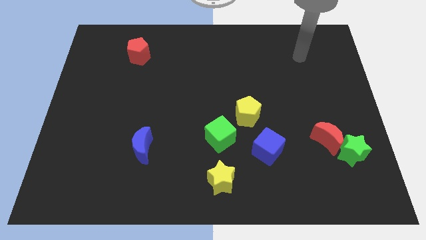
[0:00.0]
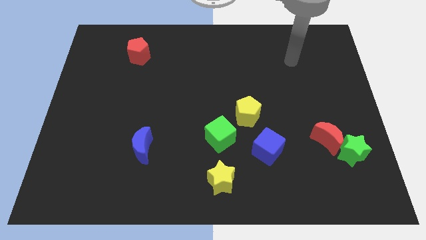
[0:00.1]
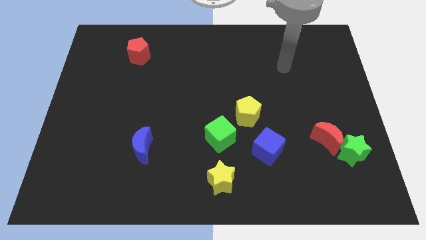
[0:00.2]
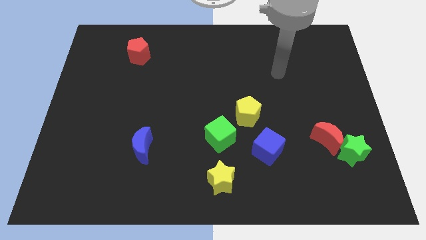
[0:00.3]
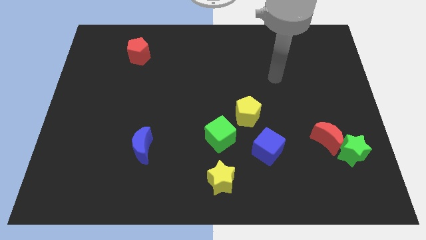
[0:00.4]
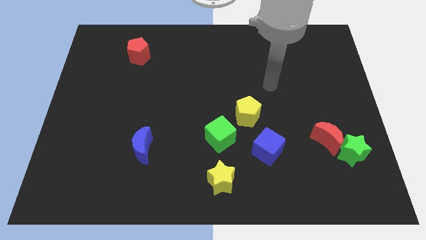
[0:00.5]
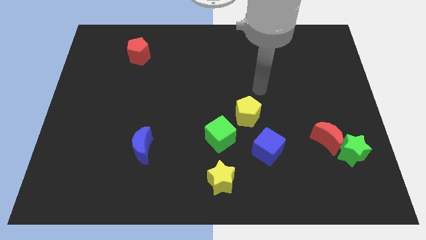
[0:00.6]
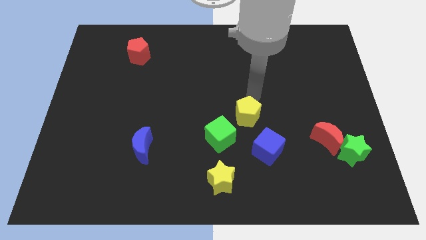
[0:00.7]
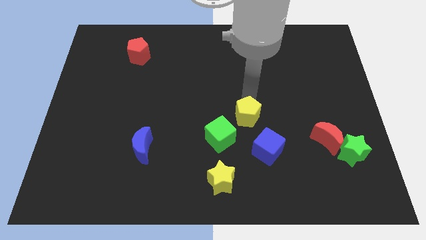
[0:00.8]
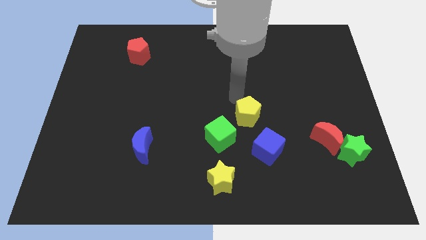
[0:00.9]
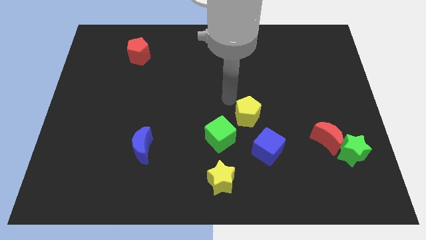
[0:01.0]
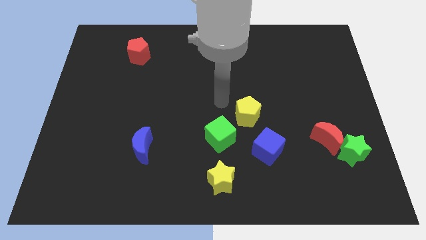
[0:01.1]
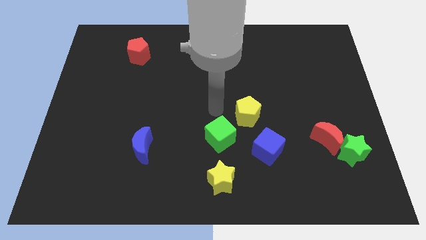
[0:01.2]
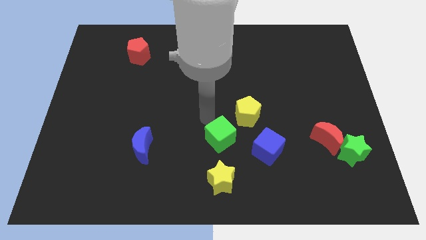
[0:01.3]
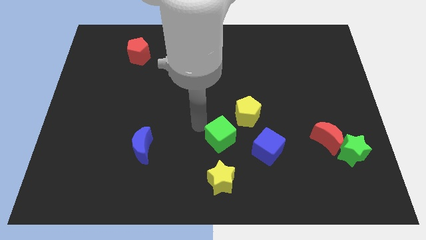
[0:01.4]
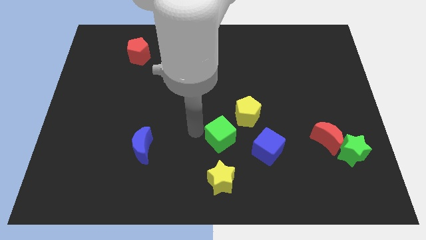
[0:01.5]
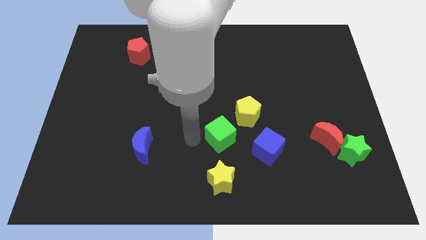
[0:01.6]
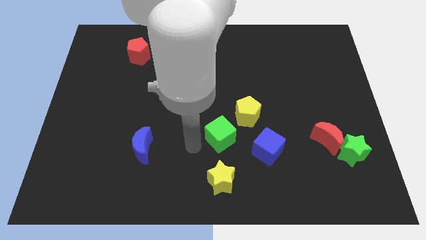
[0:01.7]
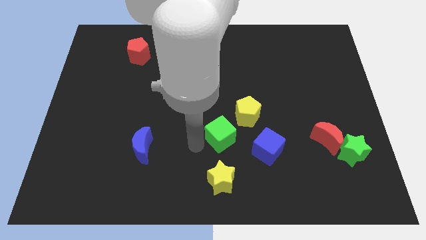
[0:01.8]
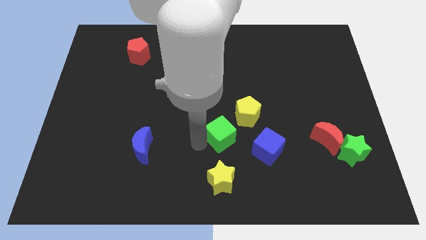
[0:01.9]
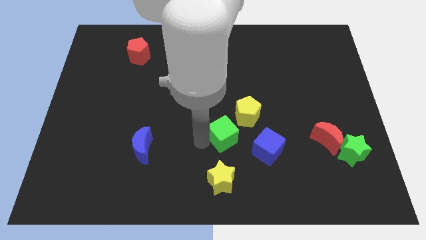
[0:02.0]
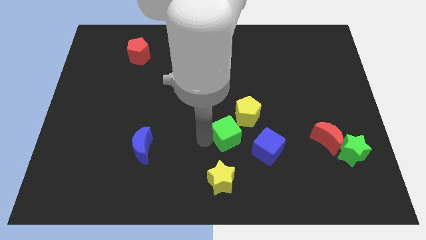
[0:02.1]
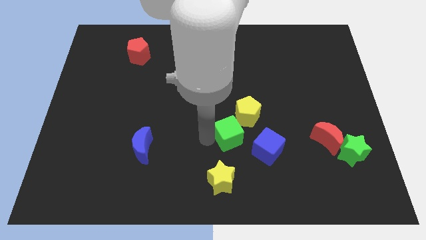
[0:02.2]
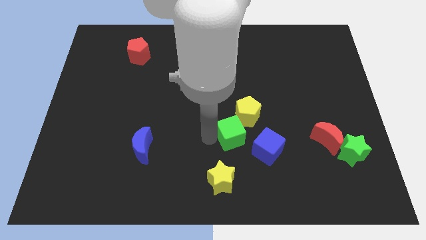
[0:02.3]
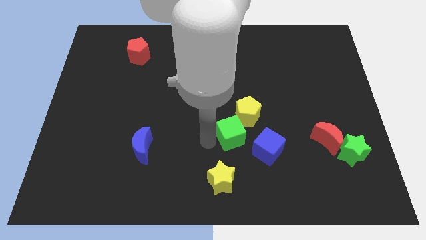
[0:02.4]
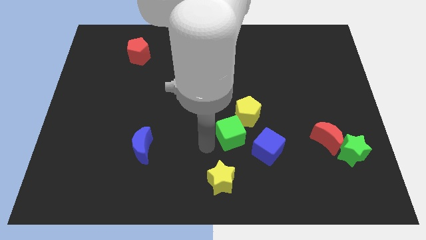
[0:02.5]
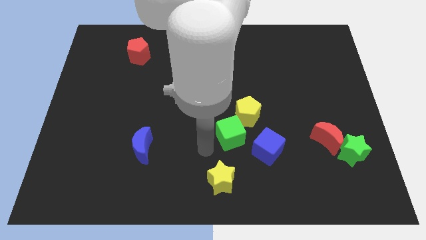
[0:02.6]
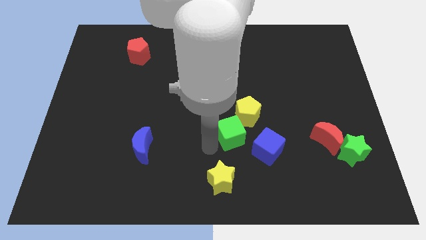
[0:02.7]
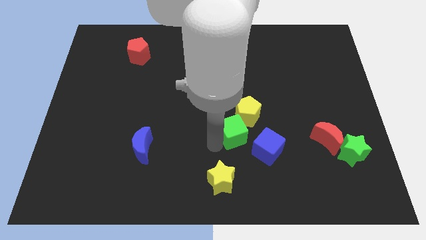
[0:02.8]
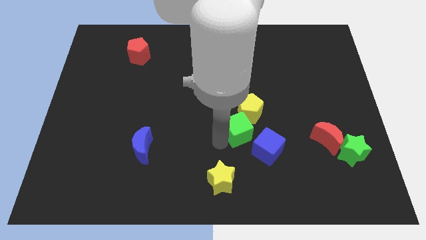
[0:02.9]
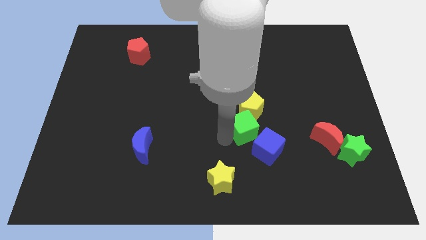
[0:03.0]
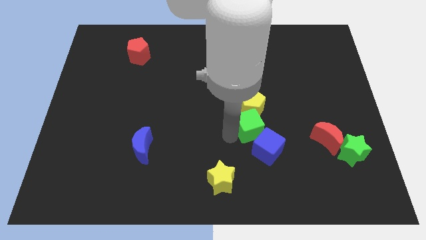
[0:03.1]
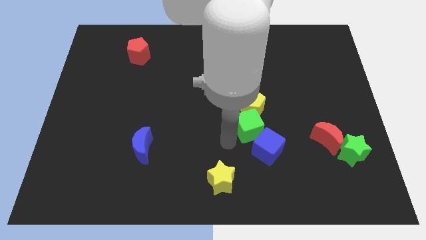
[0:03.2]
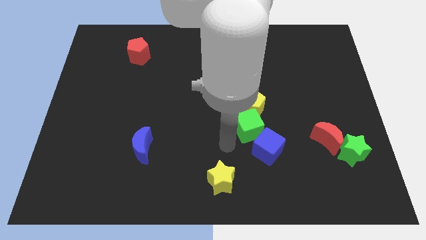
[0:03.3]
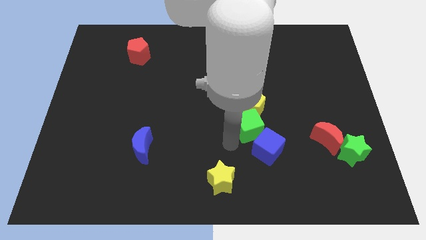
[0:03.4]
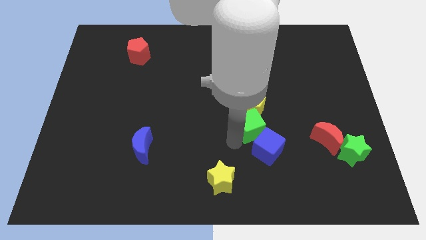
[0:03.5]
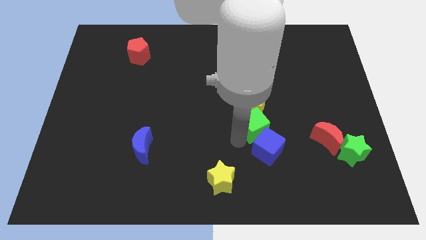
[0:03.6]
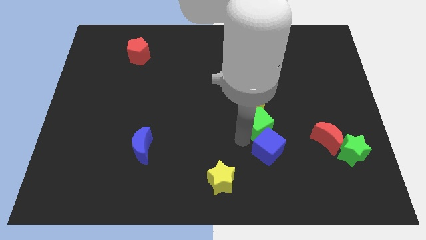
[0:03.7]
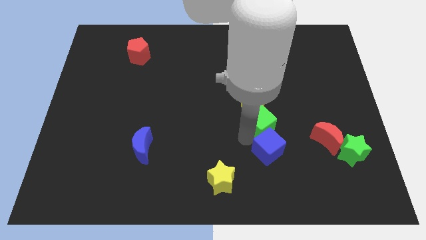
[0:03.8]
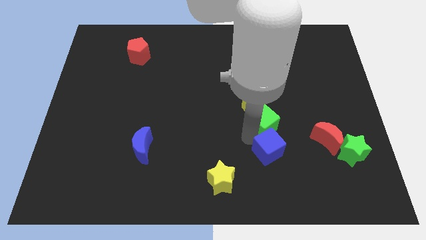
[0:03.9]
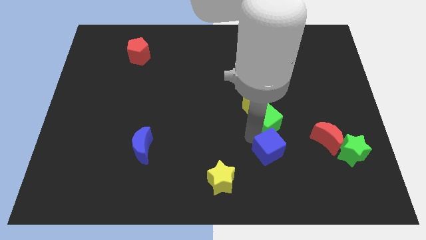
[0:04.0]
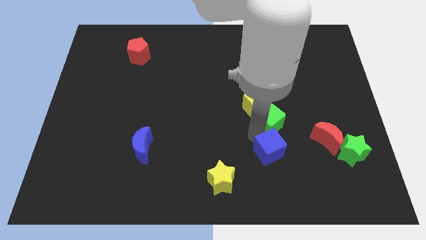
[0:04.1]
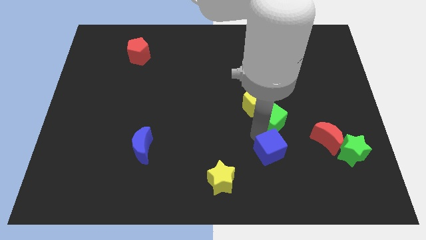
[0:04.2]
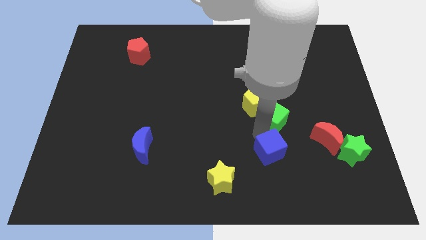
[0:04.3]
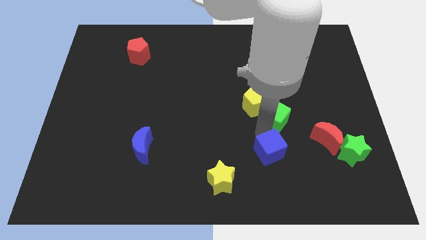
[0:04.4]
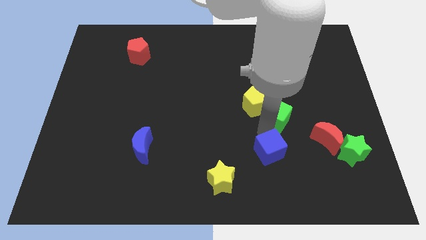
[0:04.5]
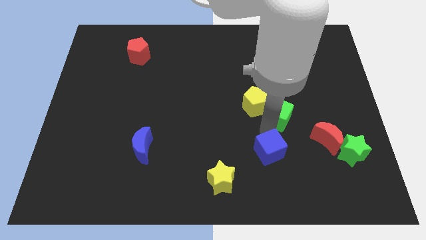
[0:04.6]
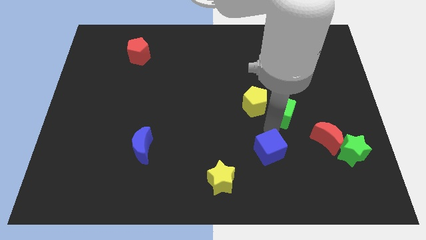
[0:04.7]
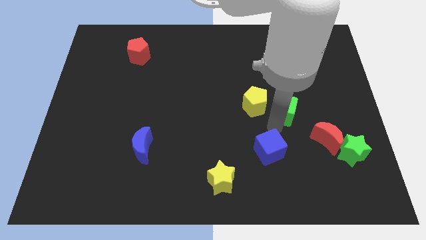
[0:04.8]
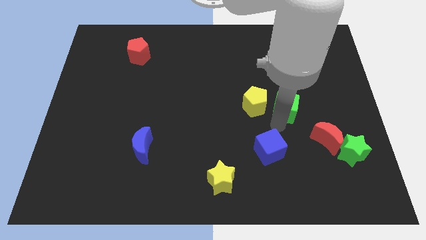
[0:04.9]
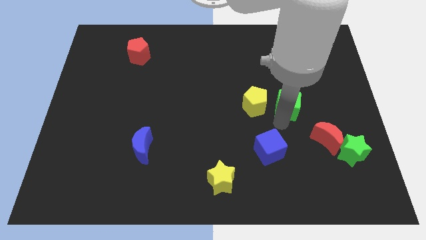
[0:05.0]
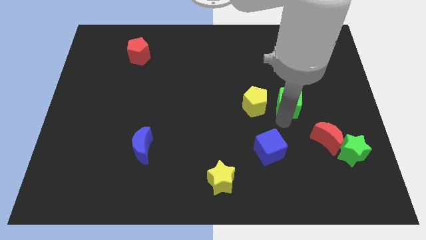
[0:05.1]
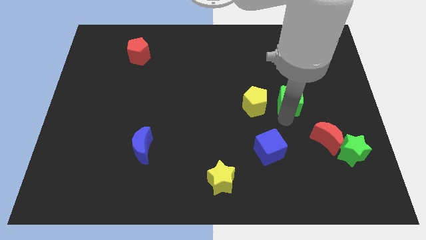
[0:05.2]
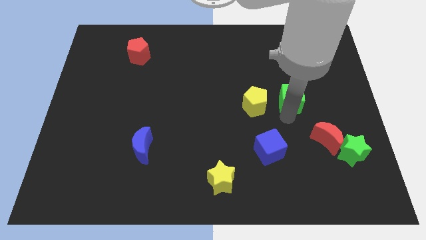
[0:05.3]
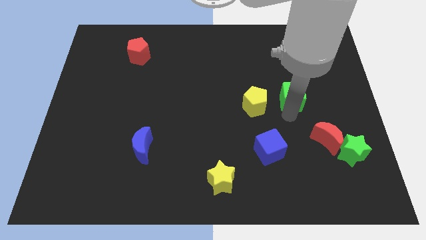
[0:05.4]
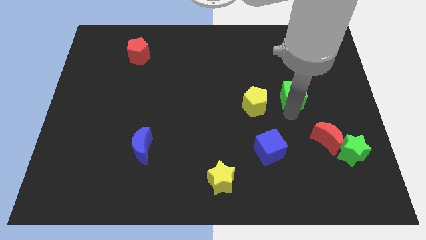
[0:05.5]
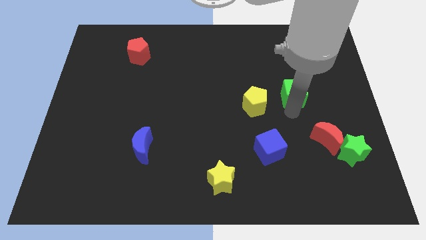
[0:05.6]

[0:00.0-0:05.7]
push the green cube up and then right

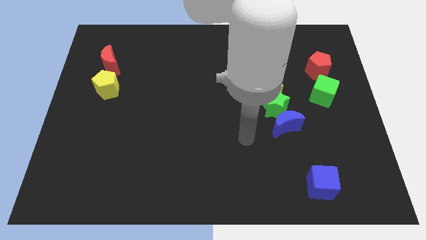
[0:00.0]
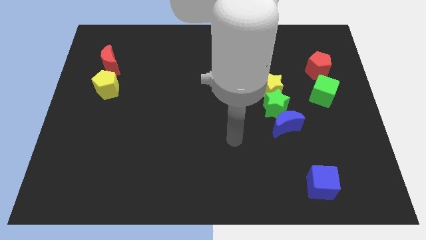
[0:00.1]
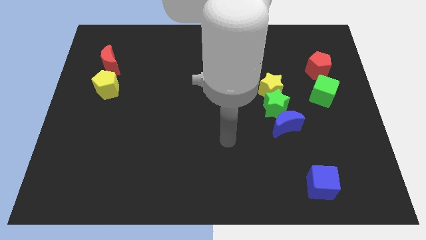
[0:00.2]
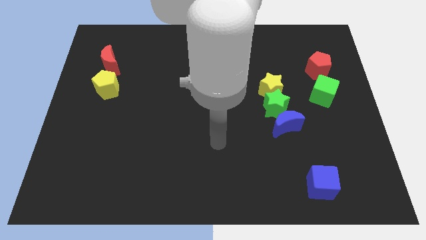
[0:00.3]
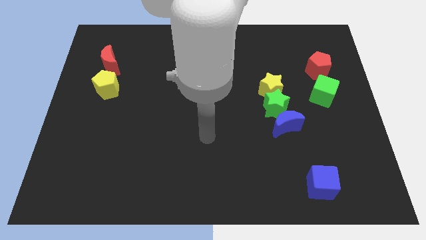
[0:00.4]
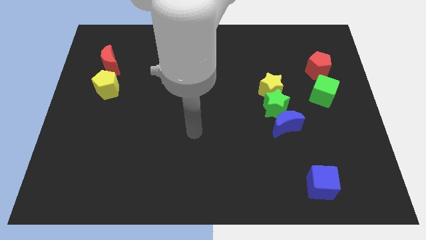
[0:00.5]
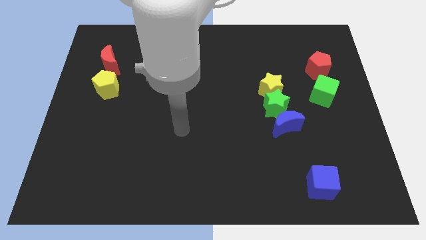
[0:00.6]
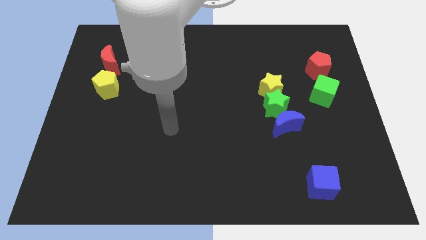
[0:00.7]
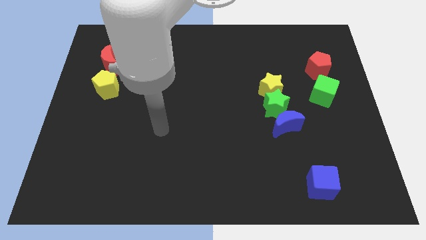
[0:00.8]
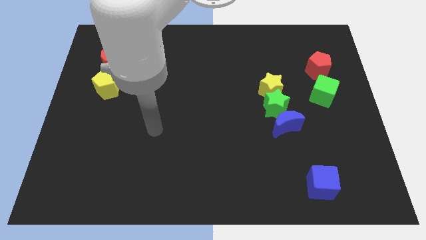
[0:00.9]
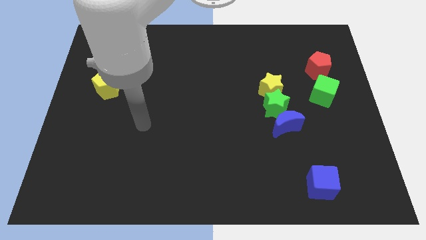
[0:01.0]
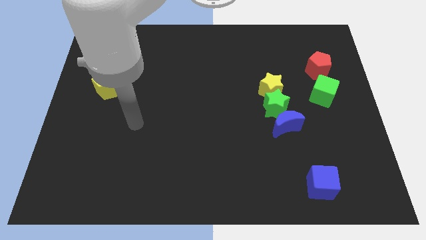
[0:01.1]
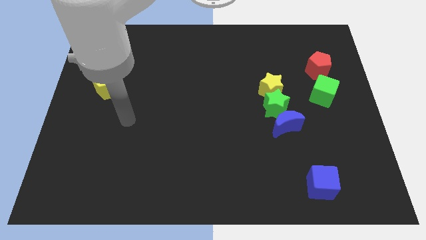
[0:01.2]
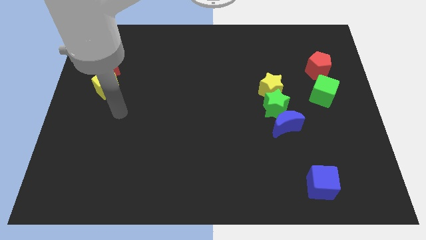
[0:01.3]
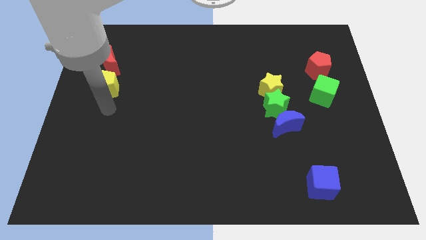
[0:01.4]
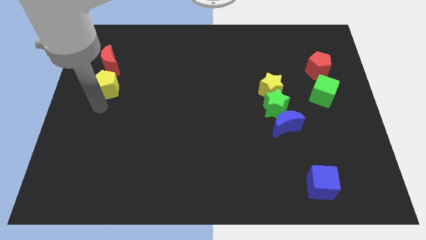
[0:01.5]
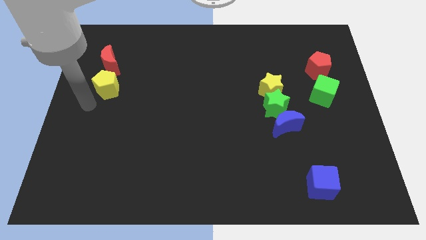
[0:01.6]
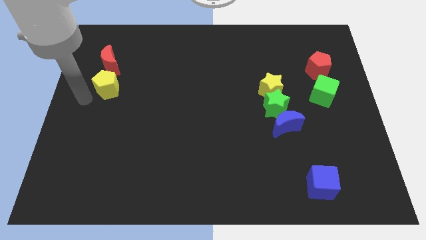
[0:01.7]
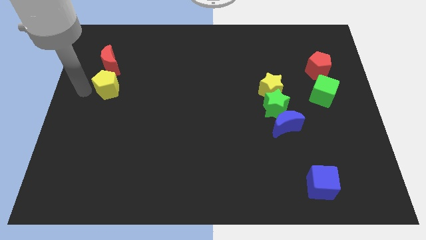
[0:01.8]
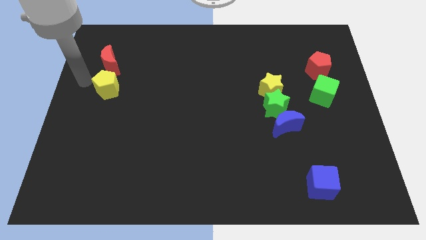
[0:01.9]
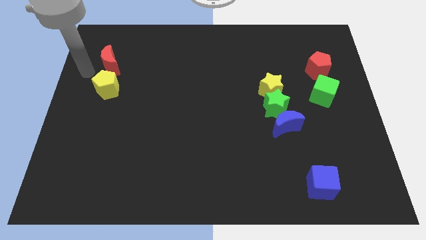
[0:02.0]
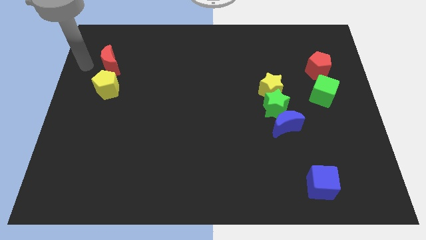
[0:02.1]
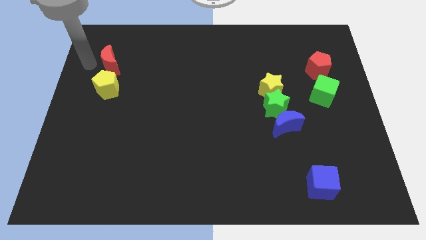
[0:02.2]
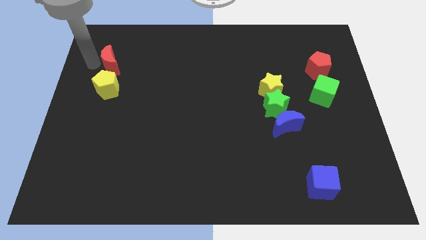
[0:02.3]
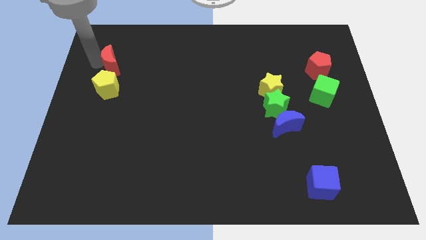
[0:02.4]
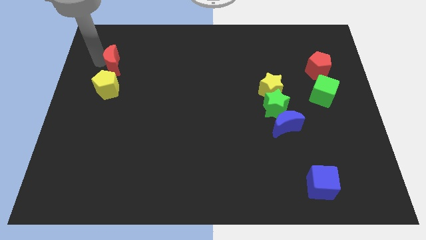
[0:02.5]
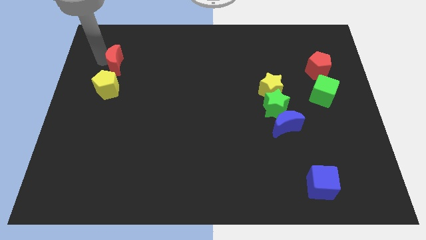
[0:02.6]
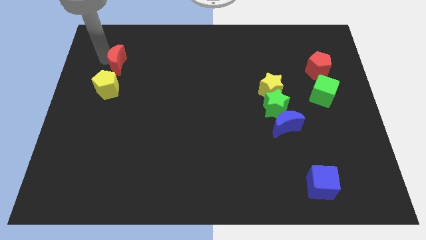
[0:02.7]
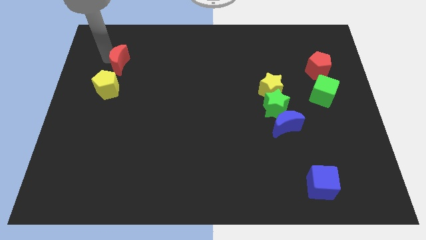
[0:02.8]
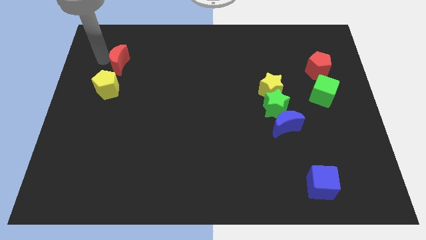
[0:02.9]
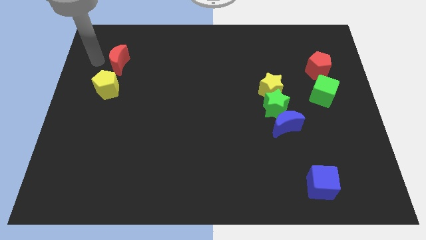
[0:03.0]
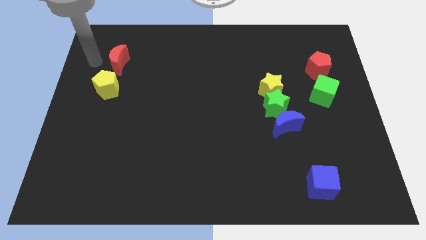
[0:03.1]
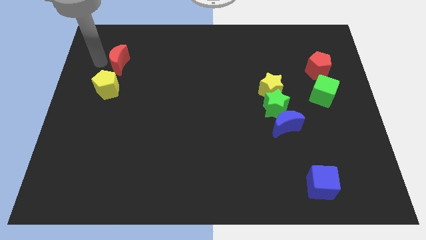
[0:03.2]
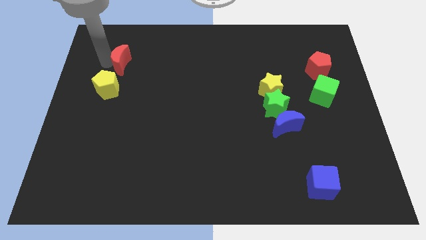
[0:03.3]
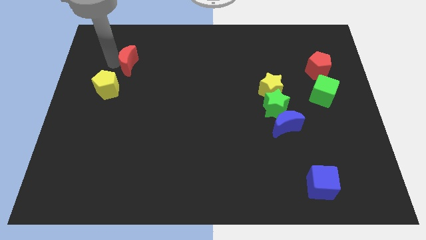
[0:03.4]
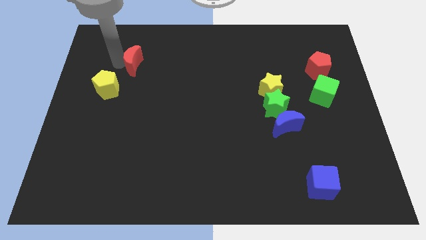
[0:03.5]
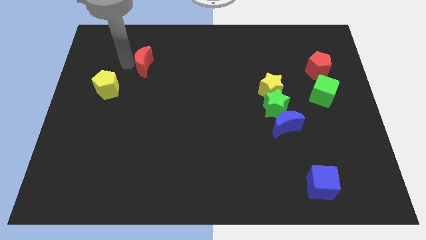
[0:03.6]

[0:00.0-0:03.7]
move the red moon slightly right
